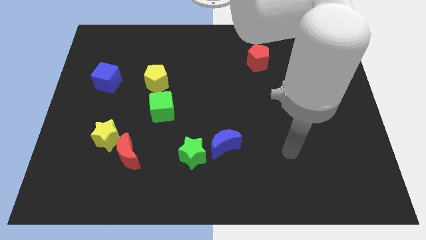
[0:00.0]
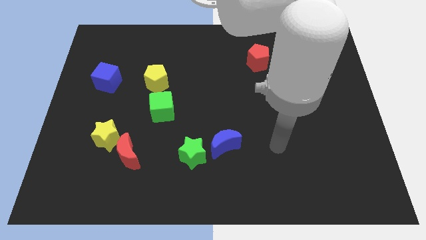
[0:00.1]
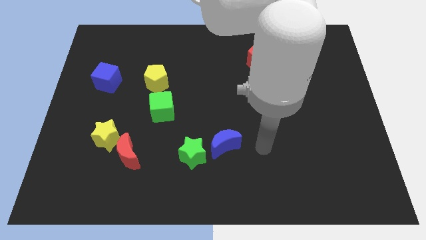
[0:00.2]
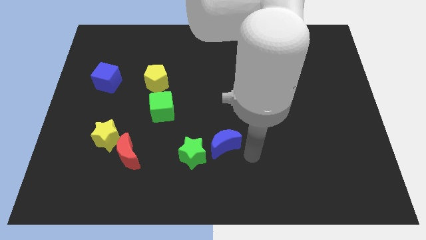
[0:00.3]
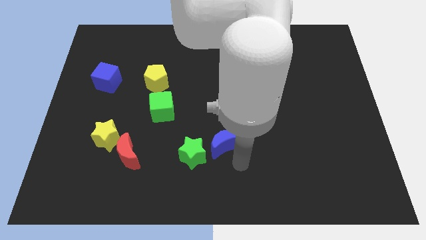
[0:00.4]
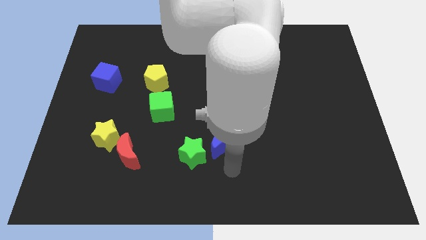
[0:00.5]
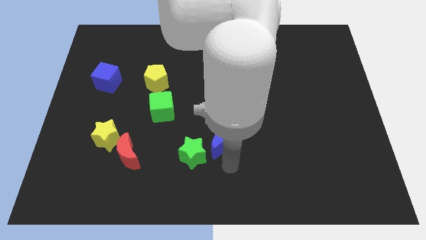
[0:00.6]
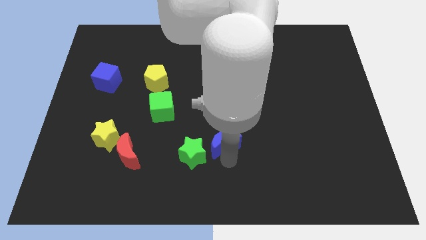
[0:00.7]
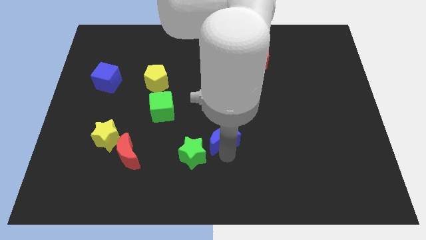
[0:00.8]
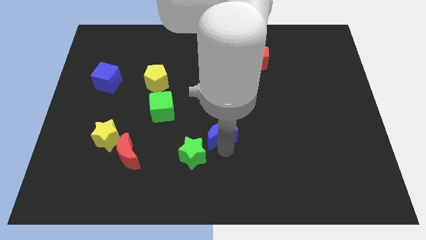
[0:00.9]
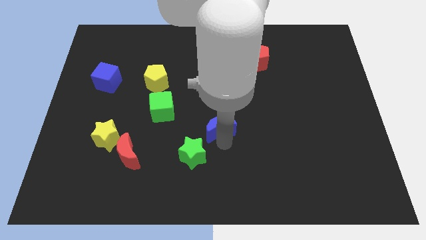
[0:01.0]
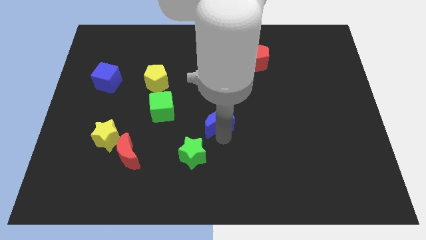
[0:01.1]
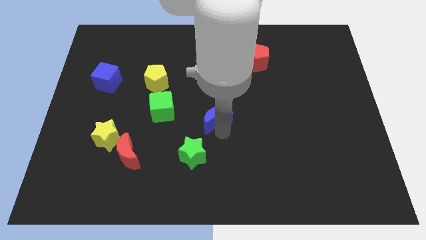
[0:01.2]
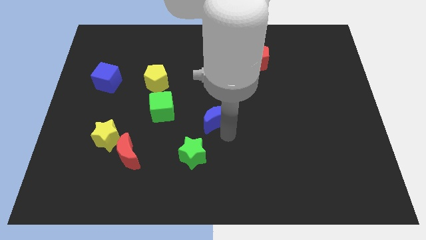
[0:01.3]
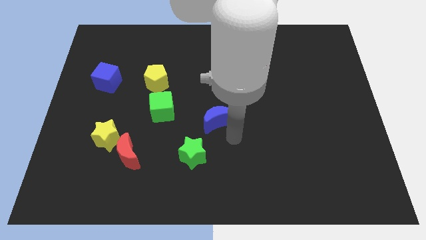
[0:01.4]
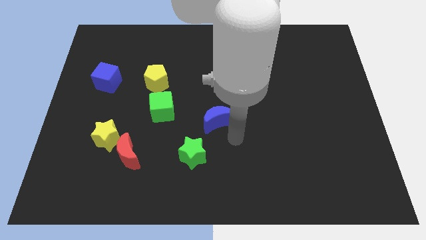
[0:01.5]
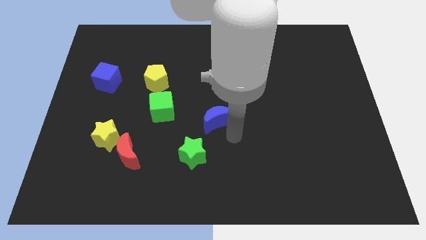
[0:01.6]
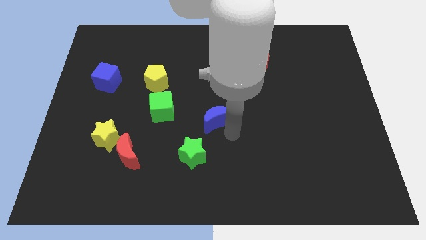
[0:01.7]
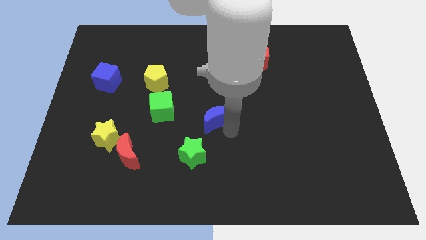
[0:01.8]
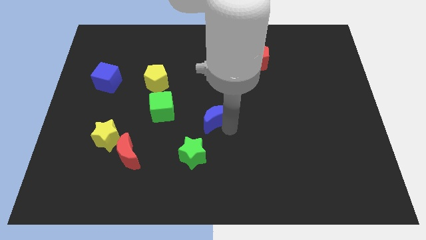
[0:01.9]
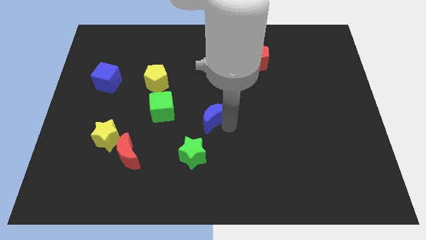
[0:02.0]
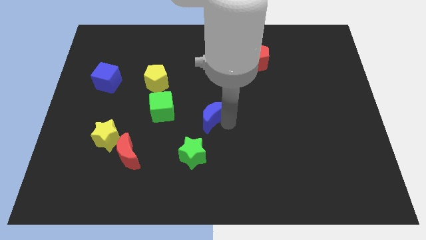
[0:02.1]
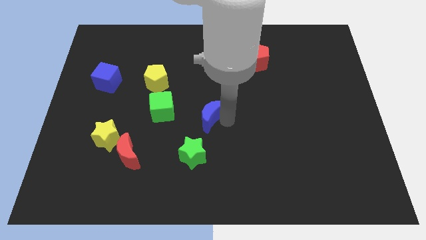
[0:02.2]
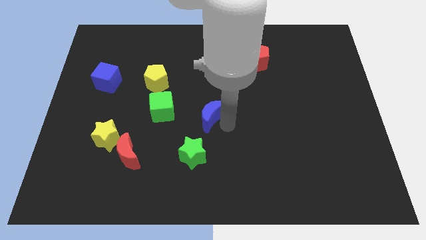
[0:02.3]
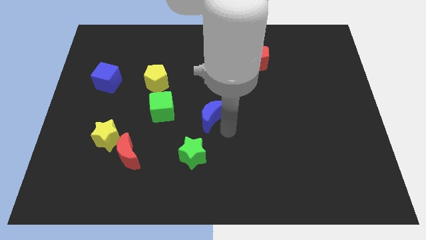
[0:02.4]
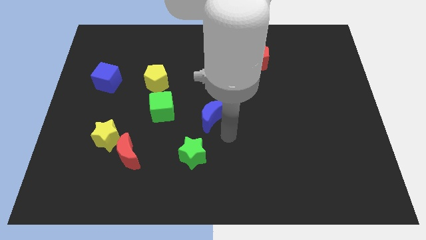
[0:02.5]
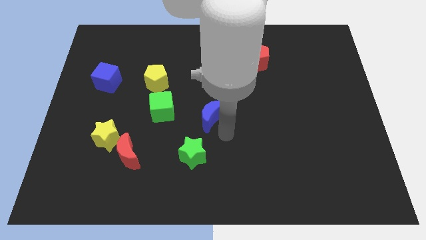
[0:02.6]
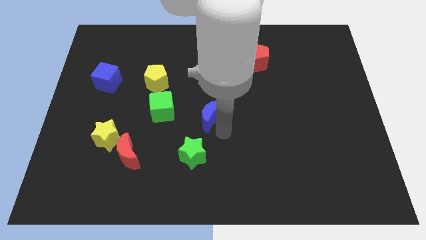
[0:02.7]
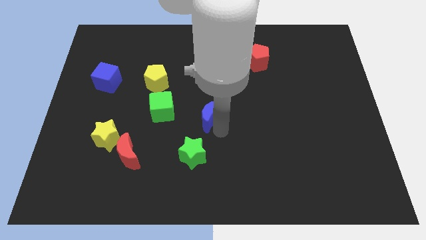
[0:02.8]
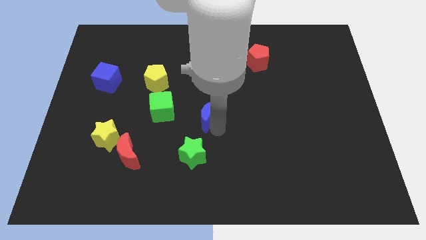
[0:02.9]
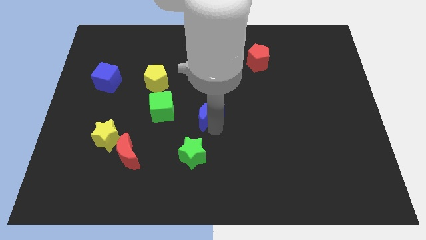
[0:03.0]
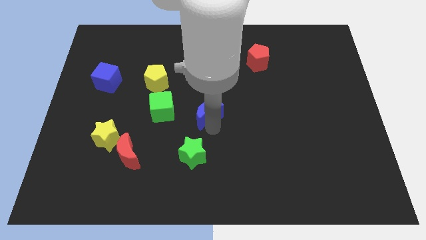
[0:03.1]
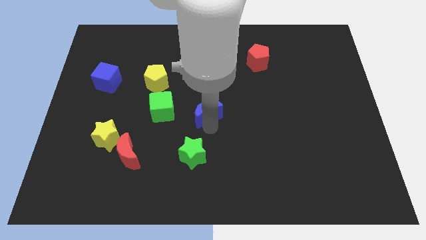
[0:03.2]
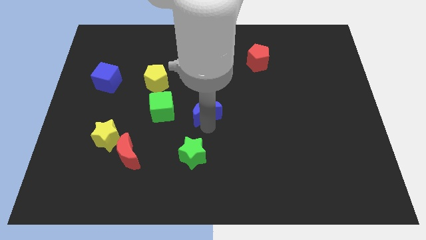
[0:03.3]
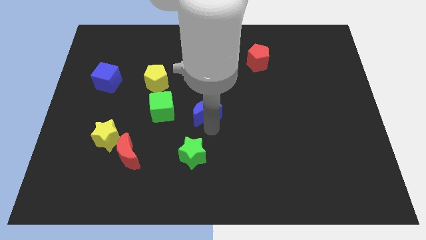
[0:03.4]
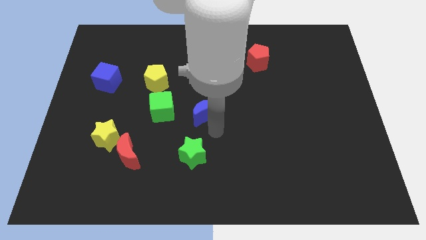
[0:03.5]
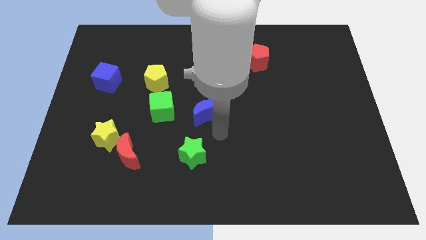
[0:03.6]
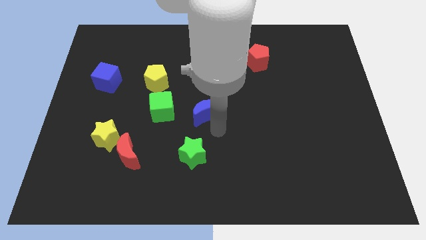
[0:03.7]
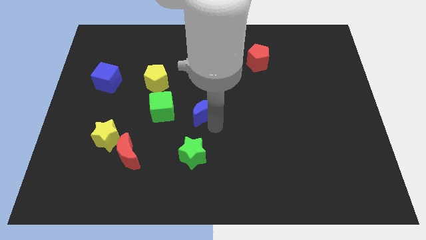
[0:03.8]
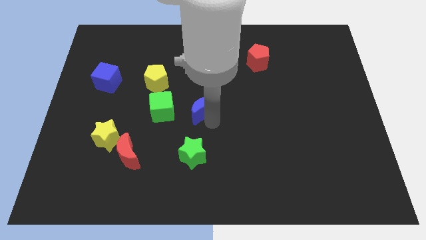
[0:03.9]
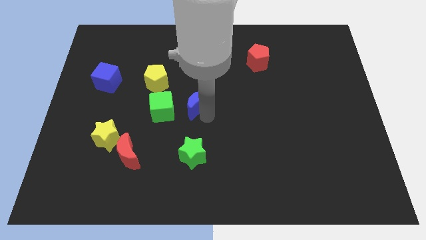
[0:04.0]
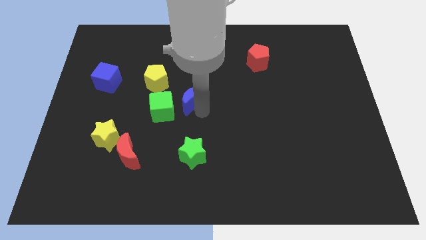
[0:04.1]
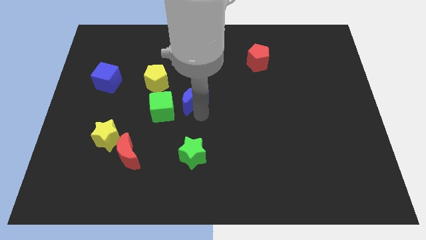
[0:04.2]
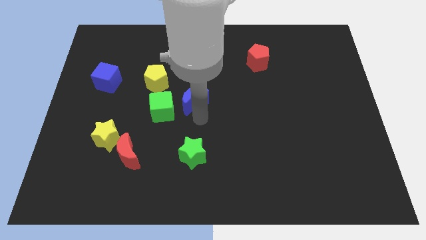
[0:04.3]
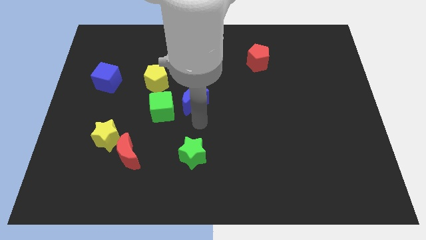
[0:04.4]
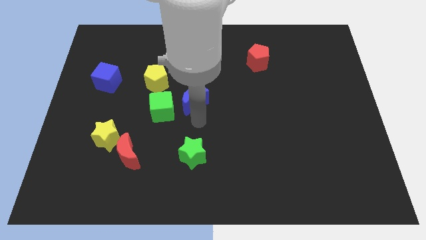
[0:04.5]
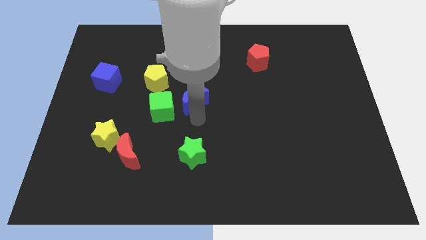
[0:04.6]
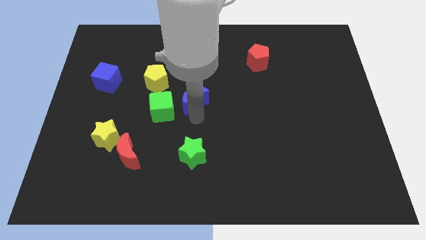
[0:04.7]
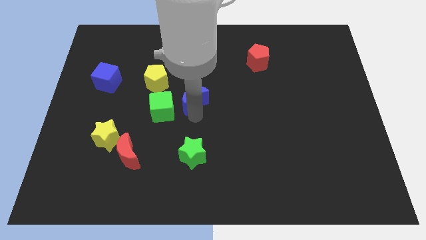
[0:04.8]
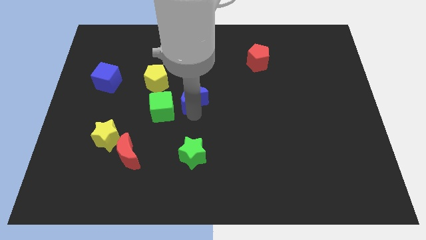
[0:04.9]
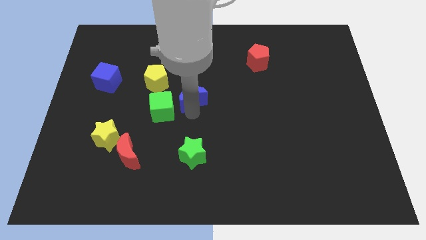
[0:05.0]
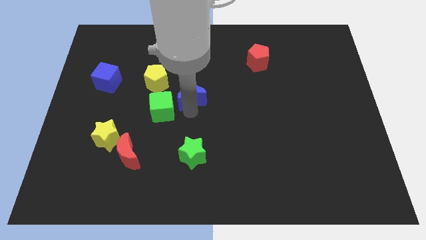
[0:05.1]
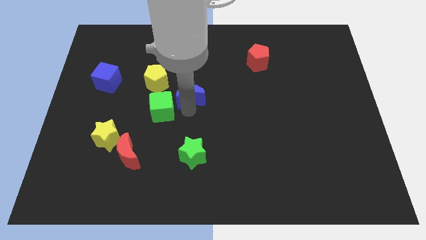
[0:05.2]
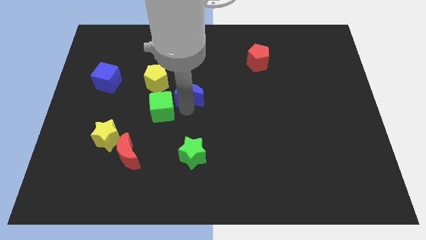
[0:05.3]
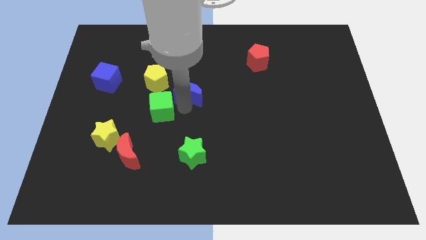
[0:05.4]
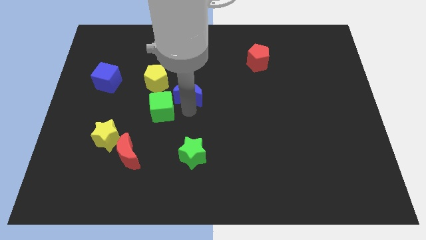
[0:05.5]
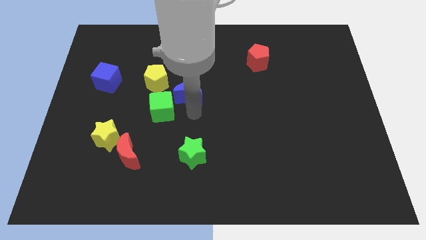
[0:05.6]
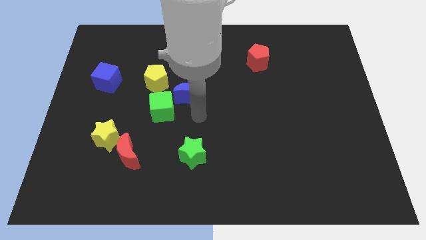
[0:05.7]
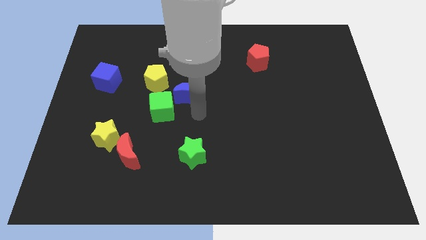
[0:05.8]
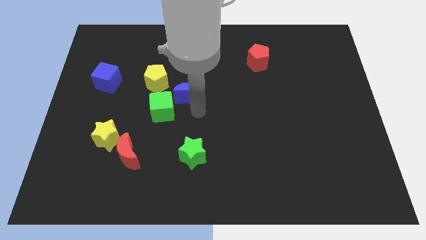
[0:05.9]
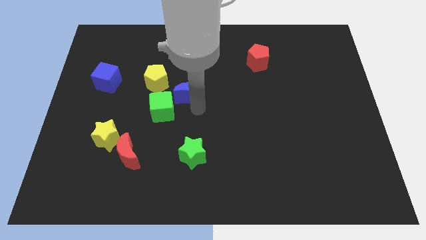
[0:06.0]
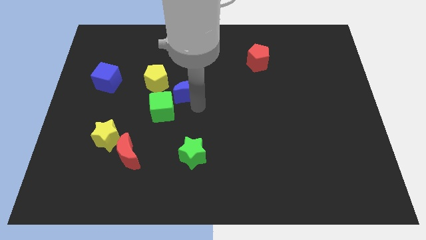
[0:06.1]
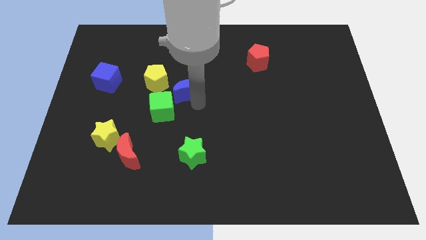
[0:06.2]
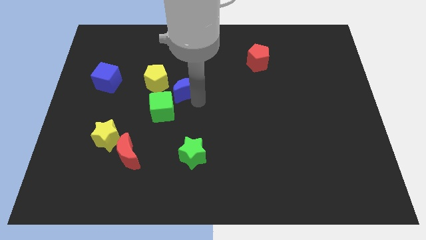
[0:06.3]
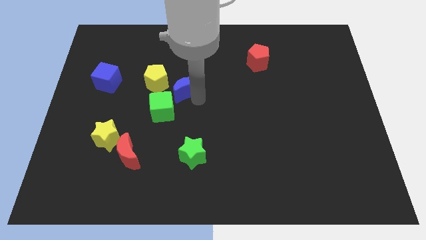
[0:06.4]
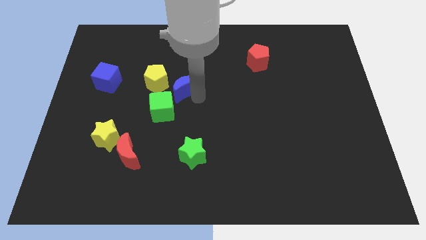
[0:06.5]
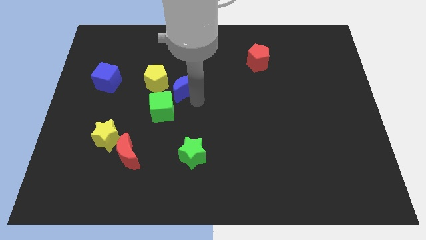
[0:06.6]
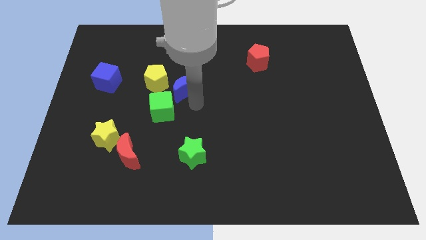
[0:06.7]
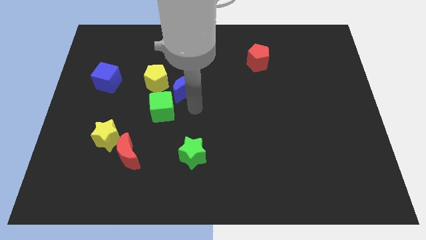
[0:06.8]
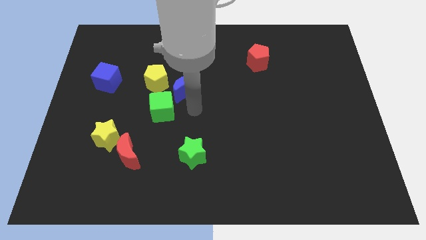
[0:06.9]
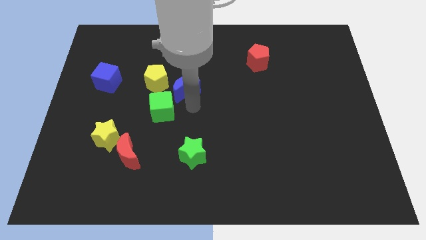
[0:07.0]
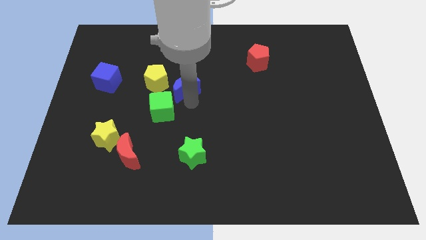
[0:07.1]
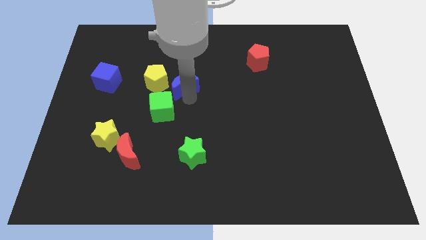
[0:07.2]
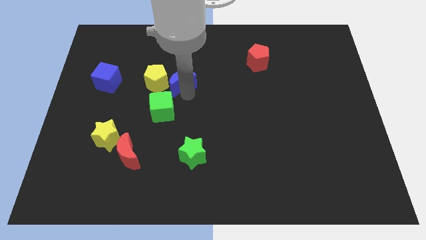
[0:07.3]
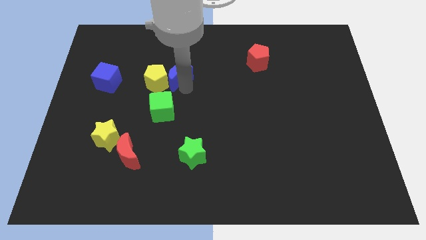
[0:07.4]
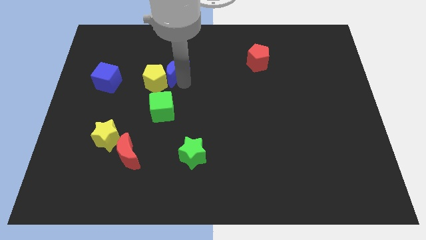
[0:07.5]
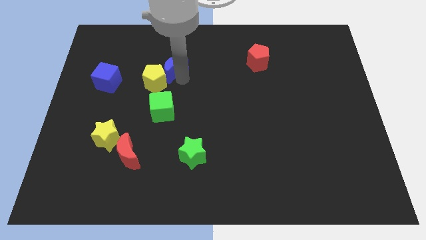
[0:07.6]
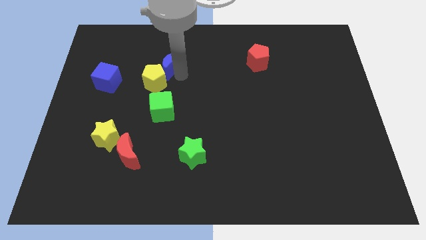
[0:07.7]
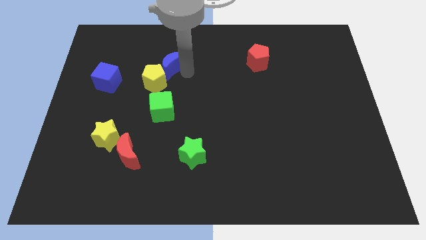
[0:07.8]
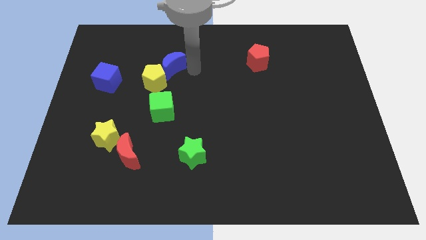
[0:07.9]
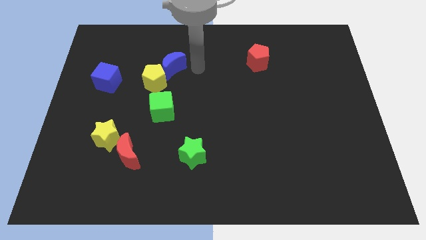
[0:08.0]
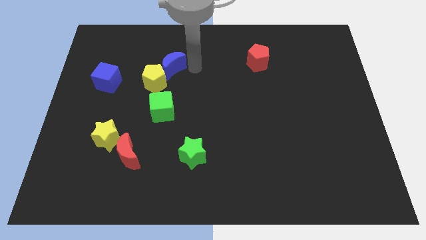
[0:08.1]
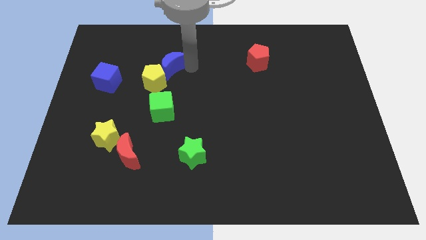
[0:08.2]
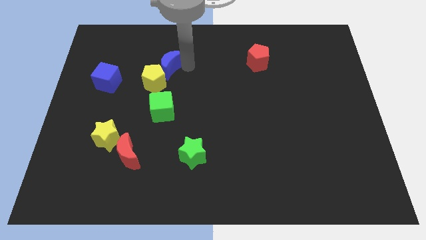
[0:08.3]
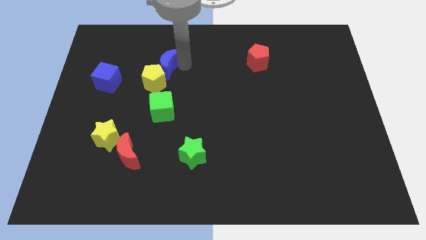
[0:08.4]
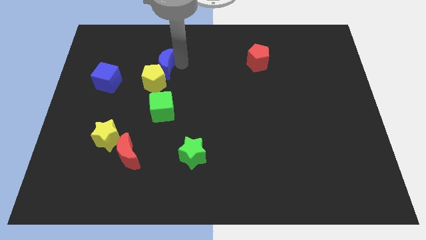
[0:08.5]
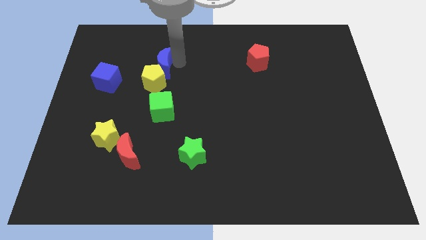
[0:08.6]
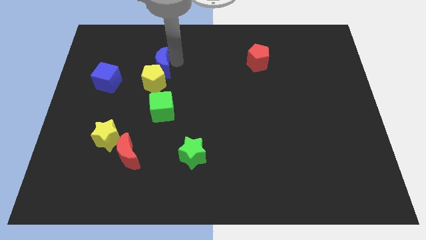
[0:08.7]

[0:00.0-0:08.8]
move the blue moon to the top left side of the yellow pentagon
